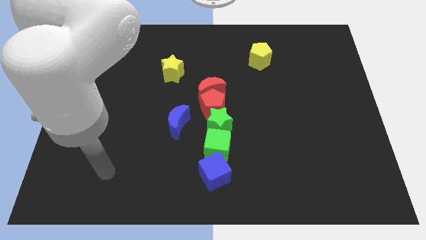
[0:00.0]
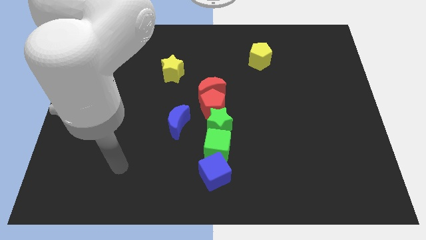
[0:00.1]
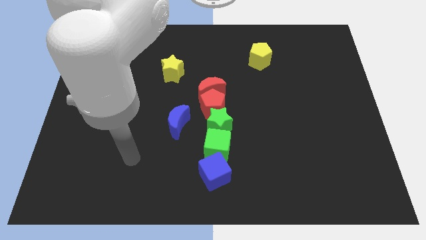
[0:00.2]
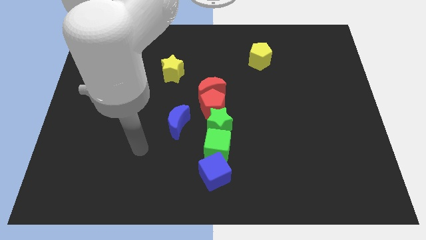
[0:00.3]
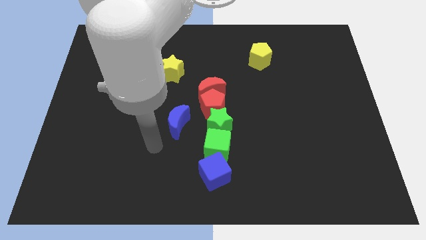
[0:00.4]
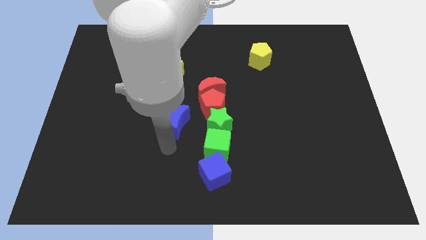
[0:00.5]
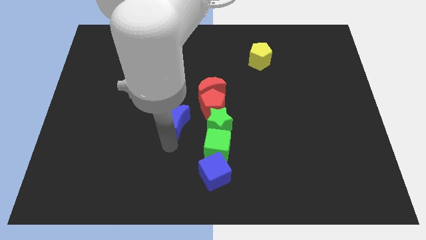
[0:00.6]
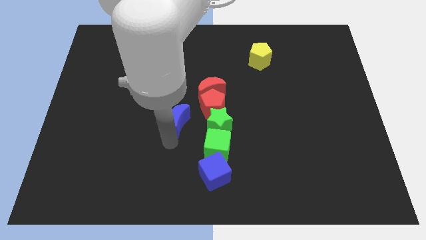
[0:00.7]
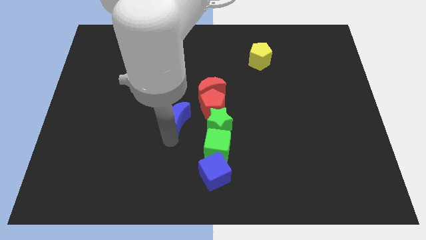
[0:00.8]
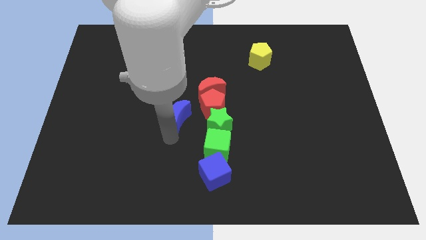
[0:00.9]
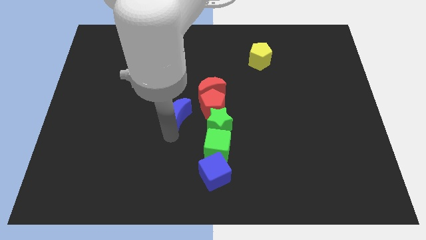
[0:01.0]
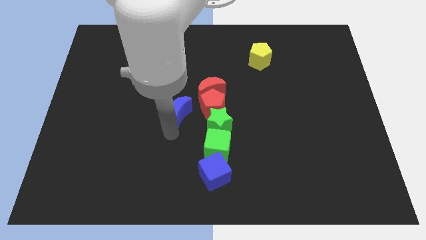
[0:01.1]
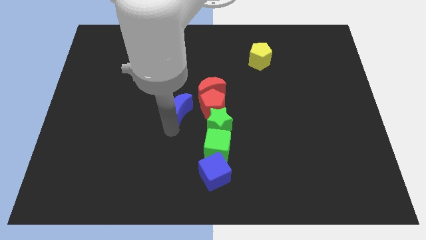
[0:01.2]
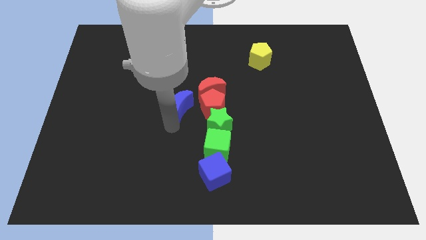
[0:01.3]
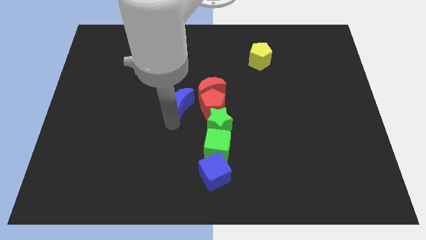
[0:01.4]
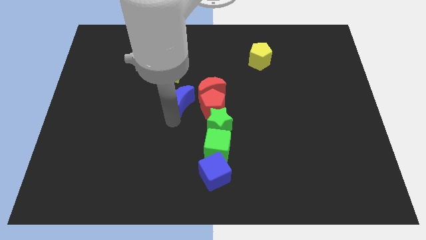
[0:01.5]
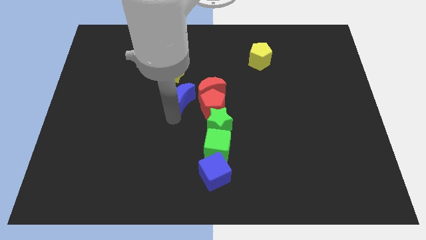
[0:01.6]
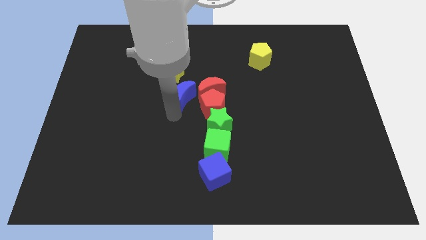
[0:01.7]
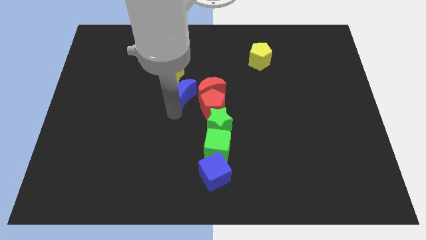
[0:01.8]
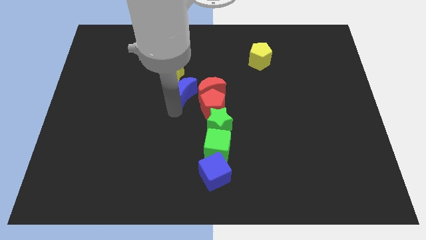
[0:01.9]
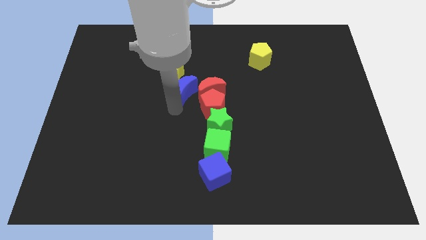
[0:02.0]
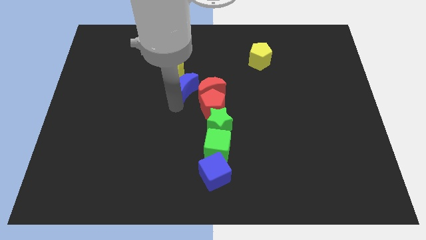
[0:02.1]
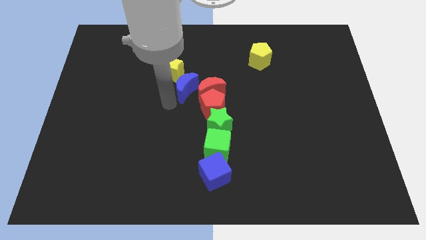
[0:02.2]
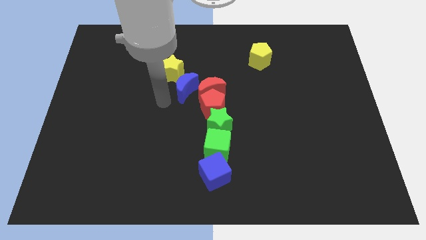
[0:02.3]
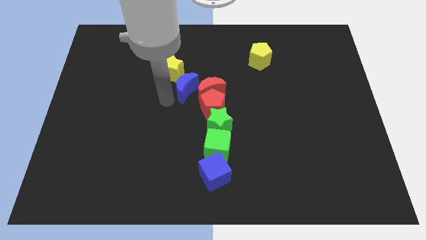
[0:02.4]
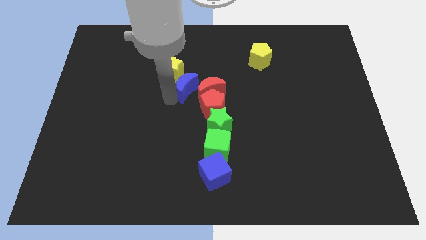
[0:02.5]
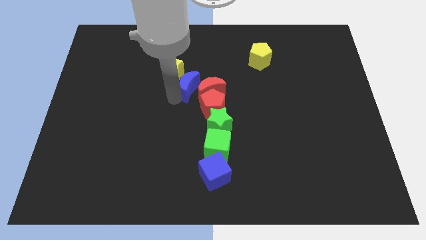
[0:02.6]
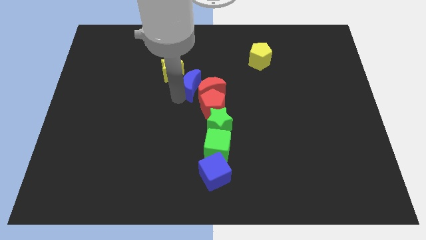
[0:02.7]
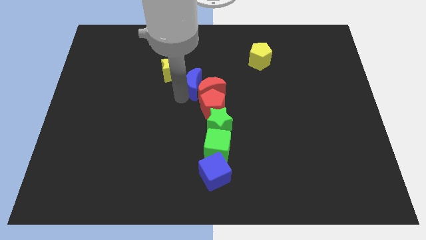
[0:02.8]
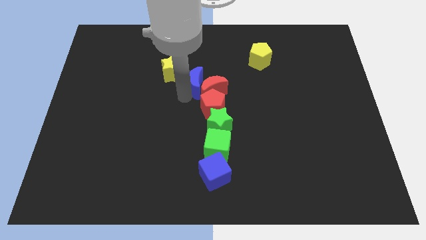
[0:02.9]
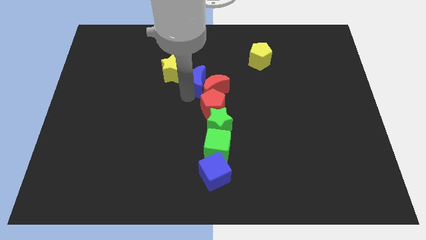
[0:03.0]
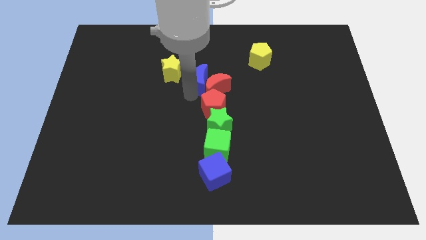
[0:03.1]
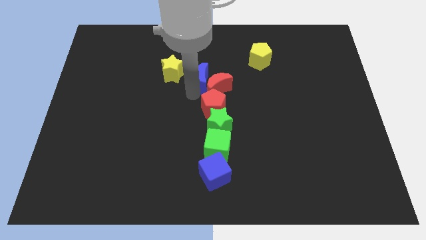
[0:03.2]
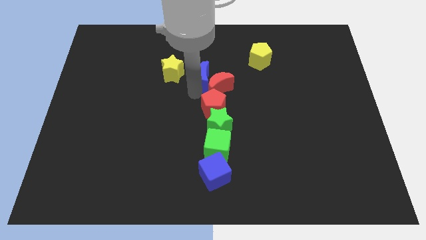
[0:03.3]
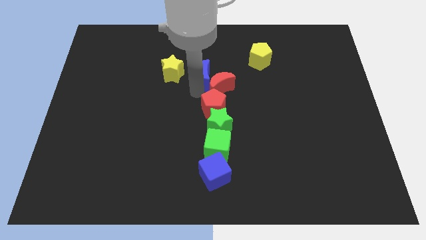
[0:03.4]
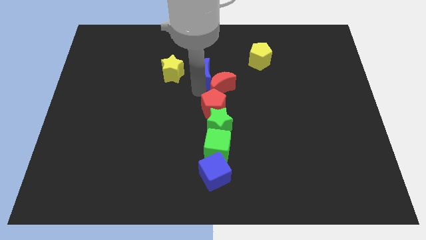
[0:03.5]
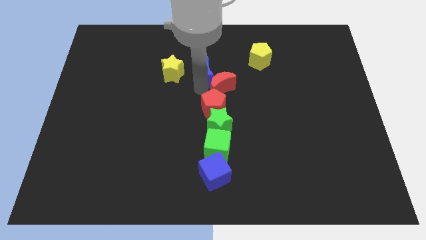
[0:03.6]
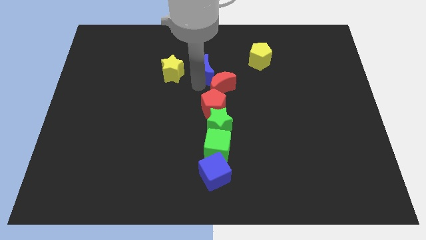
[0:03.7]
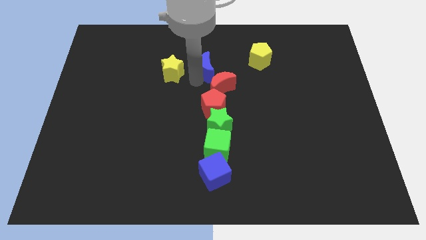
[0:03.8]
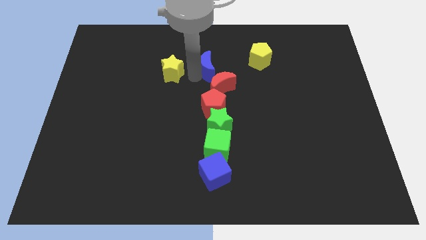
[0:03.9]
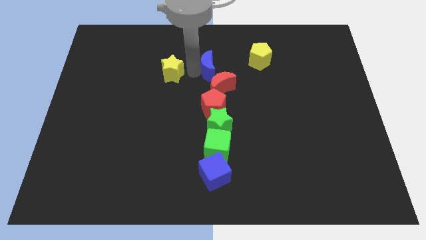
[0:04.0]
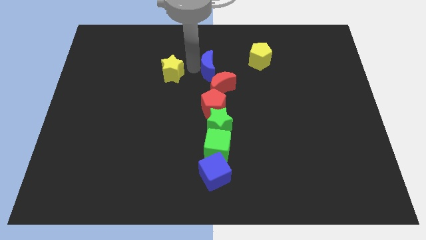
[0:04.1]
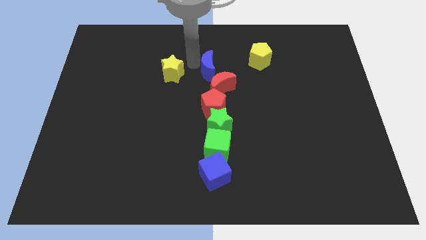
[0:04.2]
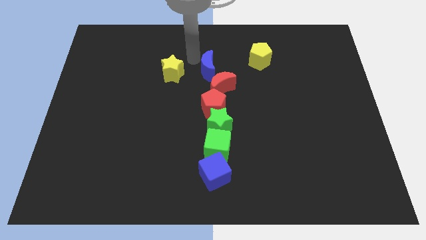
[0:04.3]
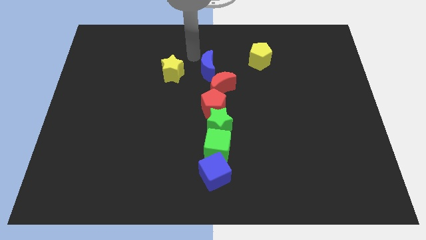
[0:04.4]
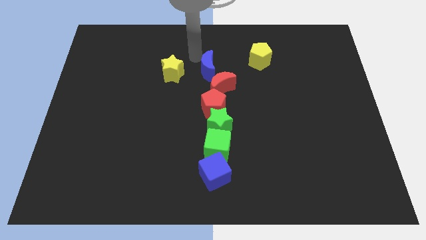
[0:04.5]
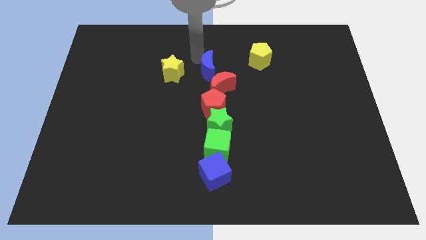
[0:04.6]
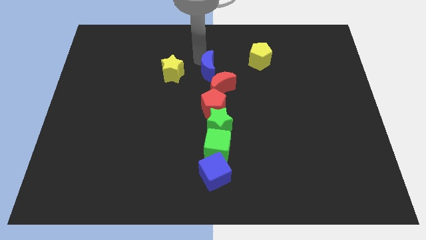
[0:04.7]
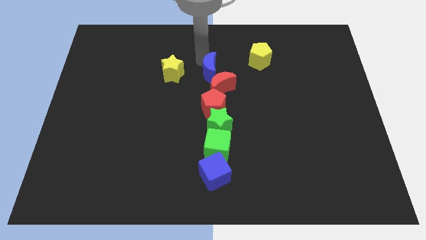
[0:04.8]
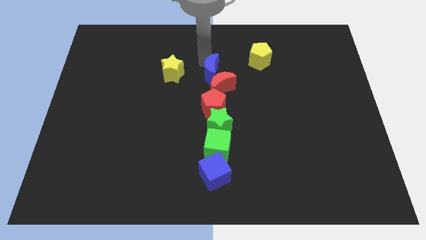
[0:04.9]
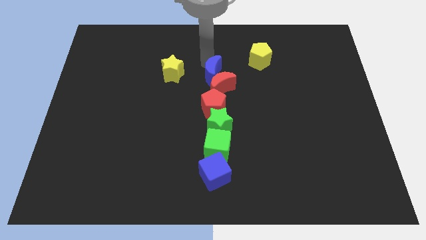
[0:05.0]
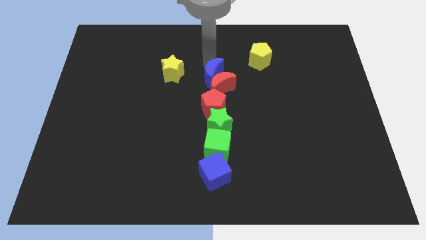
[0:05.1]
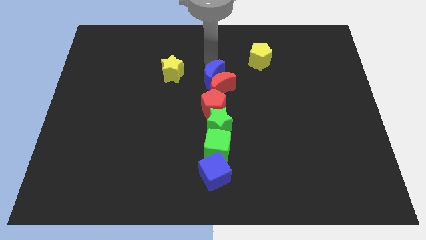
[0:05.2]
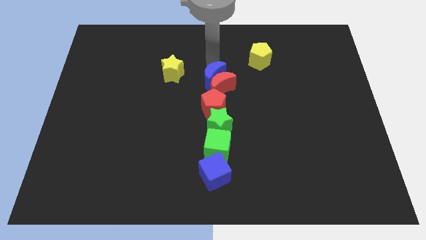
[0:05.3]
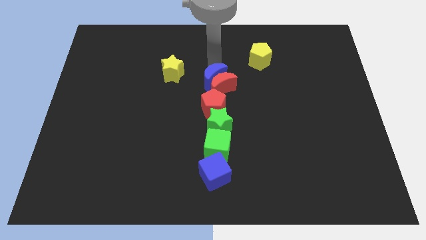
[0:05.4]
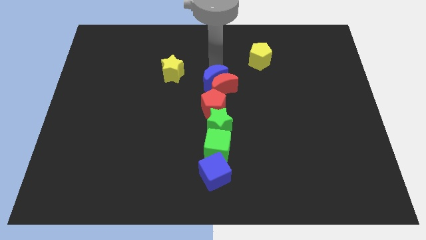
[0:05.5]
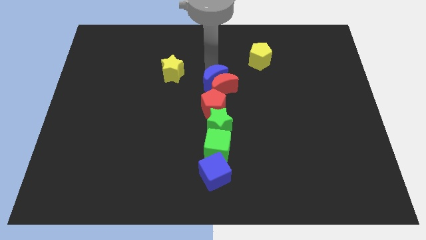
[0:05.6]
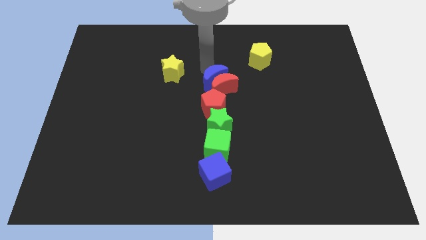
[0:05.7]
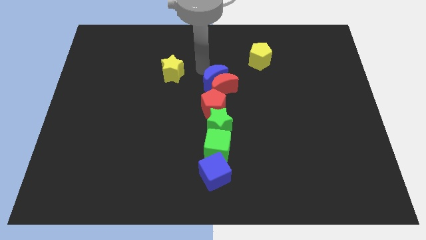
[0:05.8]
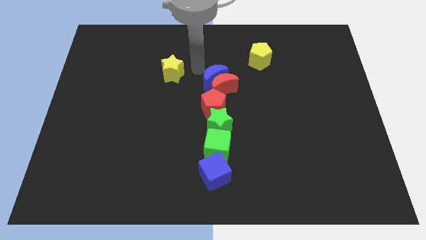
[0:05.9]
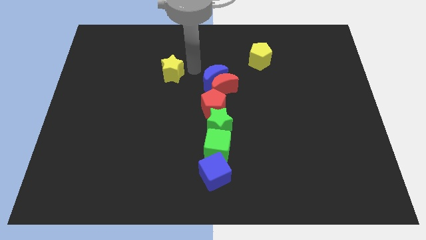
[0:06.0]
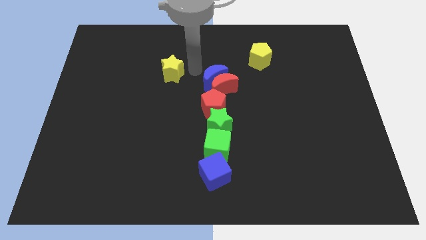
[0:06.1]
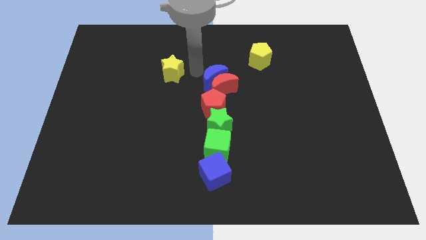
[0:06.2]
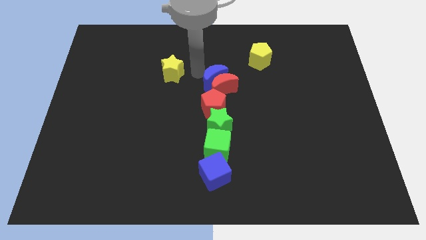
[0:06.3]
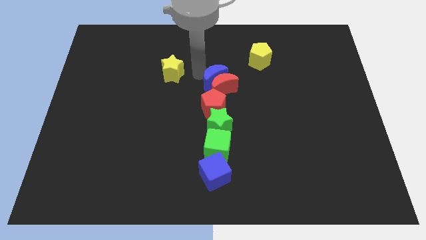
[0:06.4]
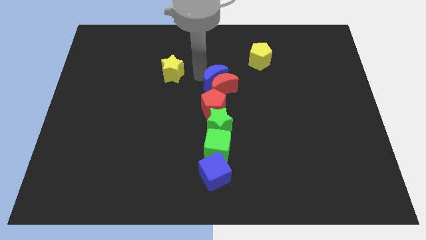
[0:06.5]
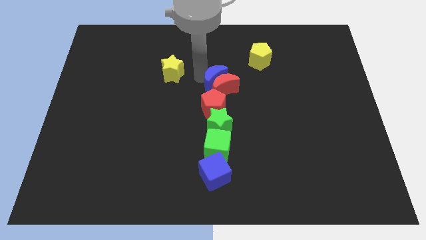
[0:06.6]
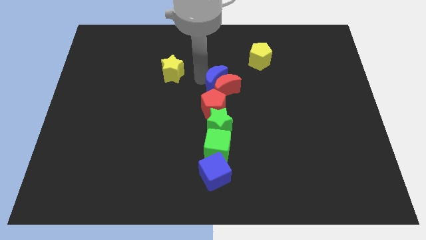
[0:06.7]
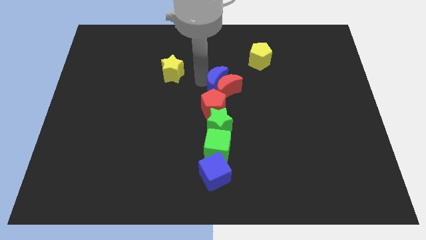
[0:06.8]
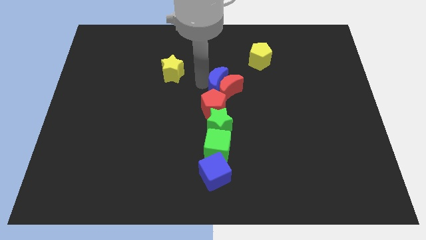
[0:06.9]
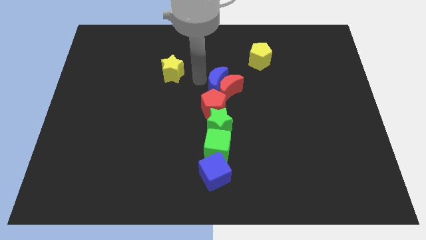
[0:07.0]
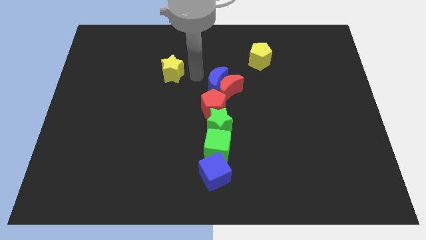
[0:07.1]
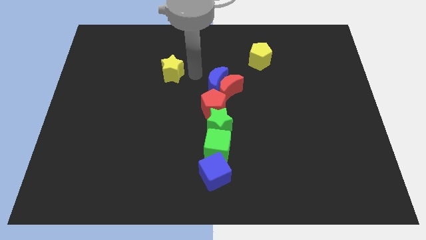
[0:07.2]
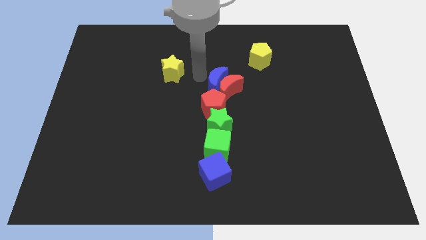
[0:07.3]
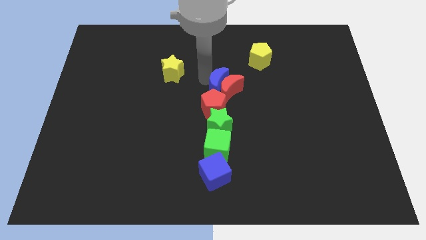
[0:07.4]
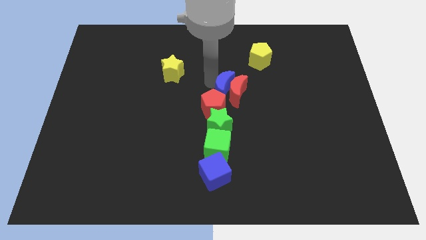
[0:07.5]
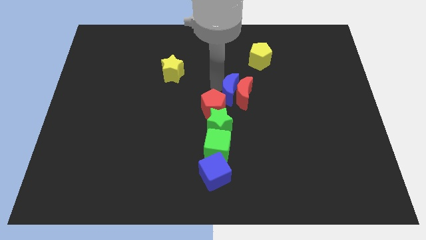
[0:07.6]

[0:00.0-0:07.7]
slide the blue moon right a little

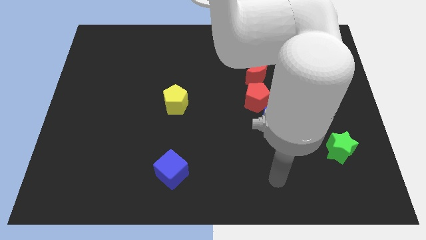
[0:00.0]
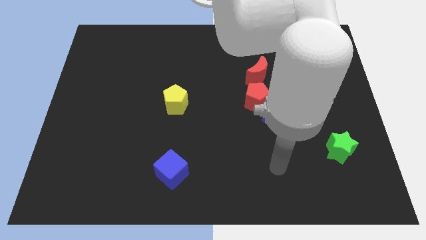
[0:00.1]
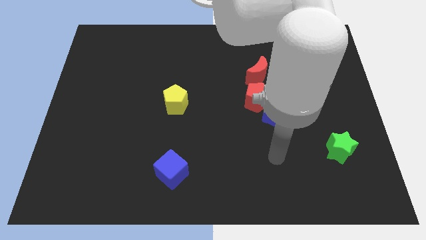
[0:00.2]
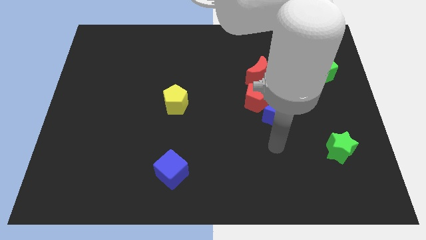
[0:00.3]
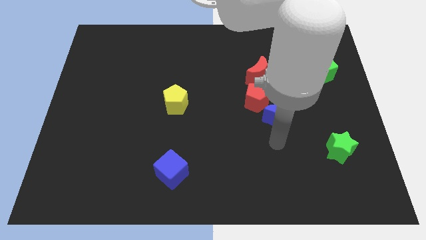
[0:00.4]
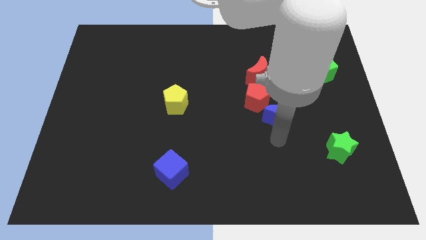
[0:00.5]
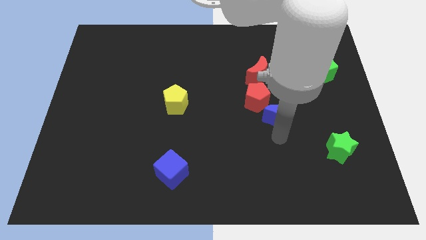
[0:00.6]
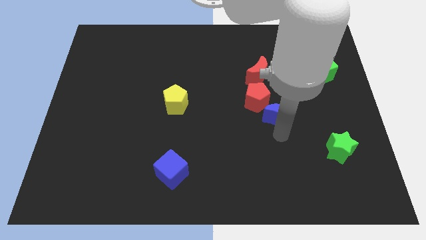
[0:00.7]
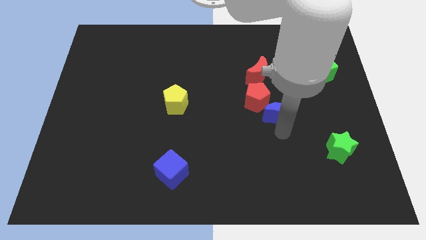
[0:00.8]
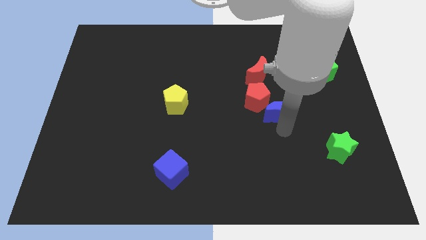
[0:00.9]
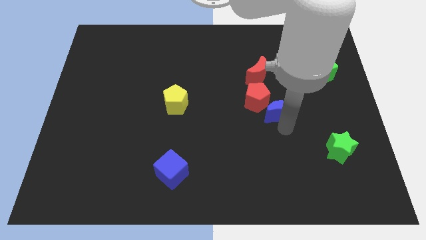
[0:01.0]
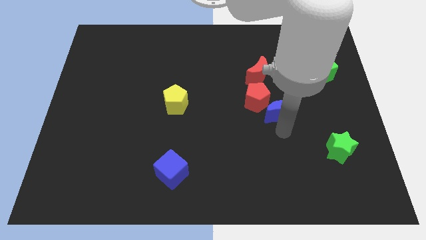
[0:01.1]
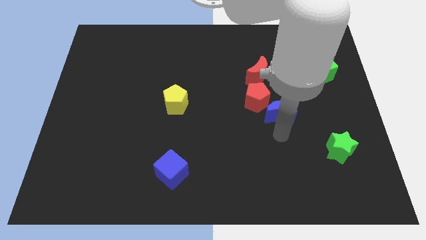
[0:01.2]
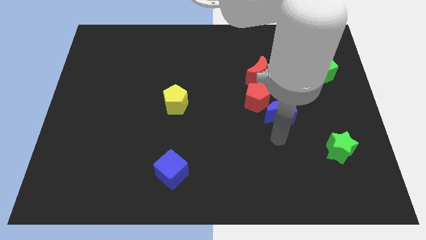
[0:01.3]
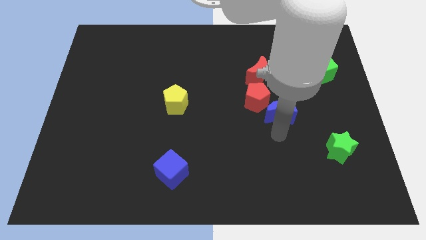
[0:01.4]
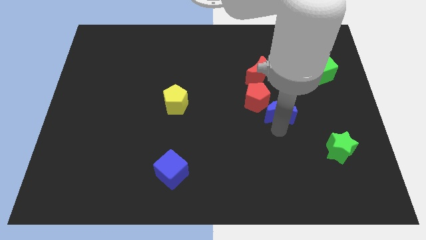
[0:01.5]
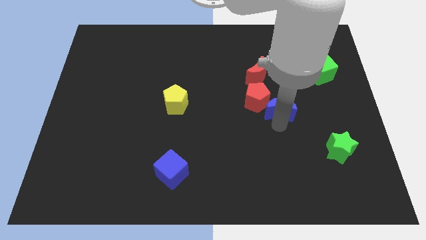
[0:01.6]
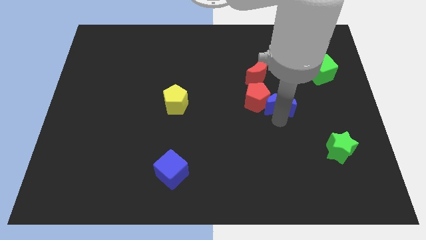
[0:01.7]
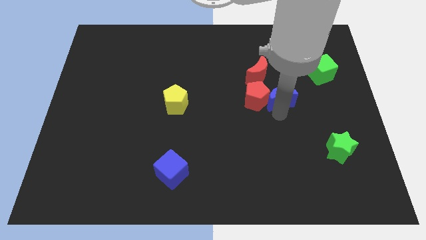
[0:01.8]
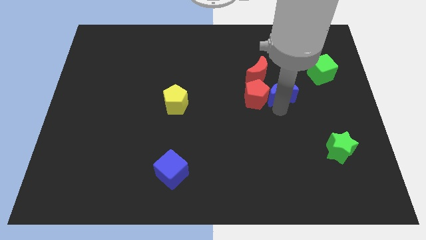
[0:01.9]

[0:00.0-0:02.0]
slide the blue moon upwards a bit
